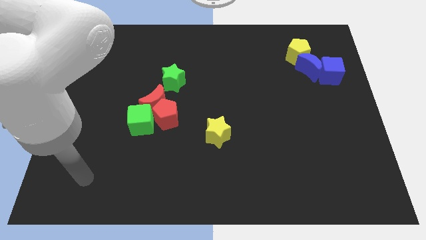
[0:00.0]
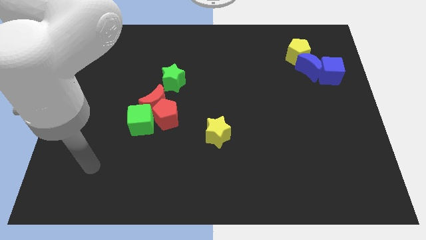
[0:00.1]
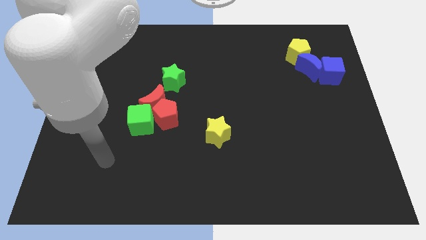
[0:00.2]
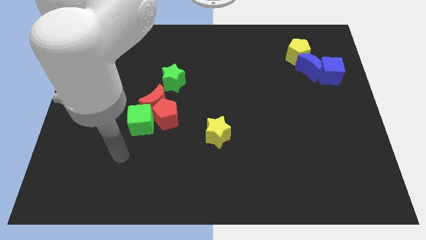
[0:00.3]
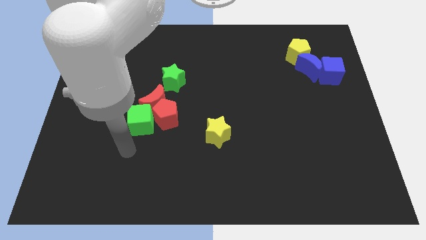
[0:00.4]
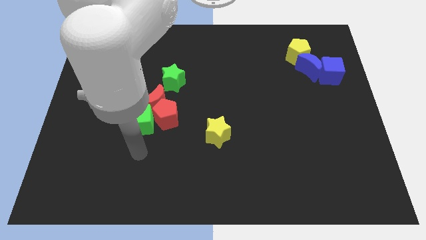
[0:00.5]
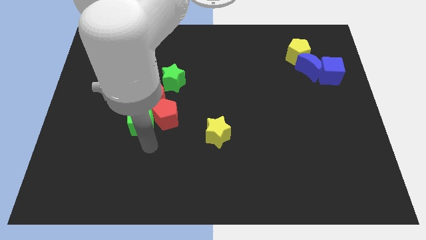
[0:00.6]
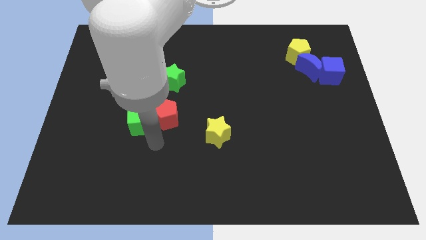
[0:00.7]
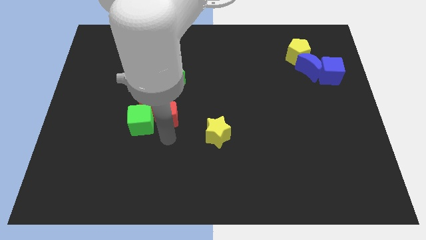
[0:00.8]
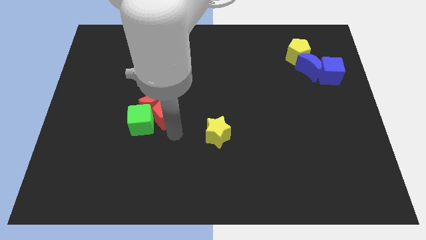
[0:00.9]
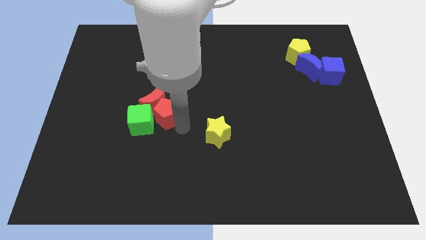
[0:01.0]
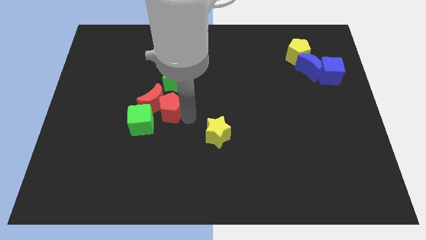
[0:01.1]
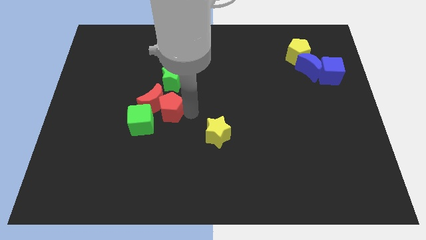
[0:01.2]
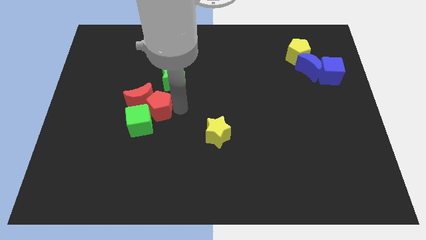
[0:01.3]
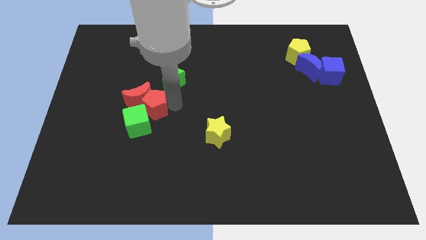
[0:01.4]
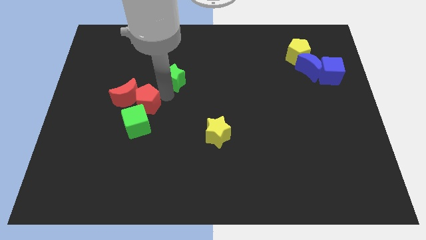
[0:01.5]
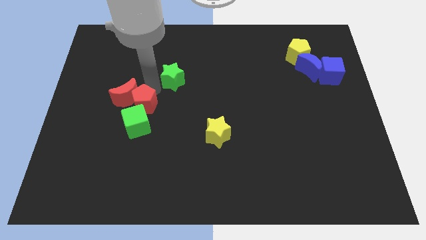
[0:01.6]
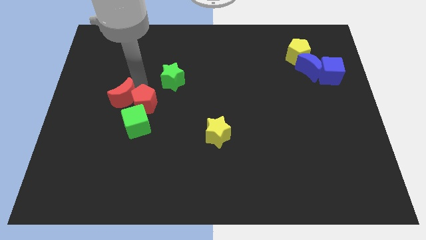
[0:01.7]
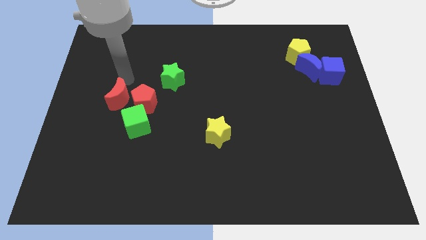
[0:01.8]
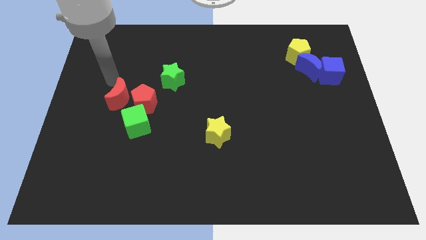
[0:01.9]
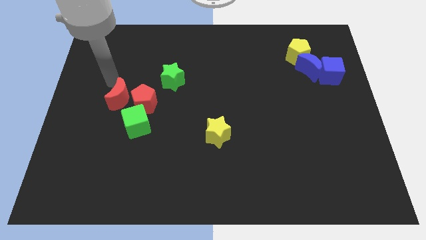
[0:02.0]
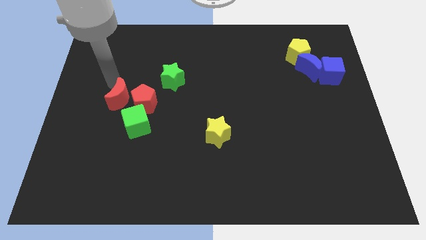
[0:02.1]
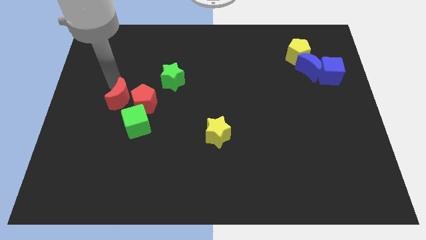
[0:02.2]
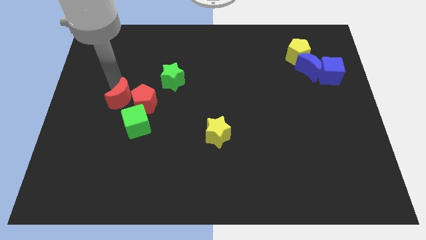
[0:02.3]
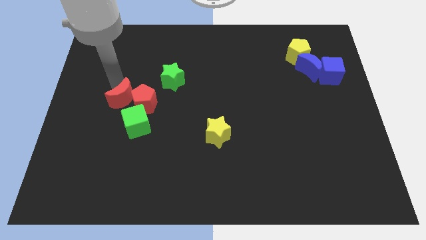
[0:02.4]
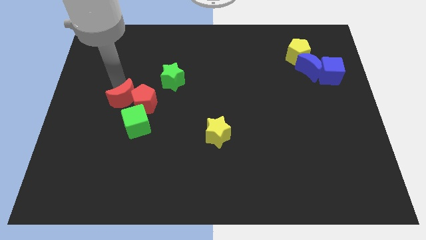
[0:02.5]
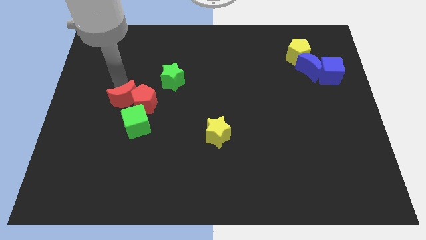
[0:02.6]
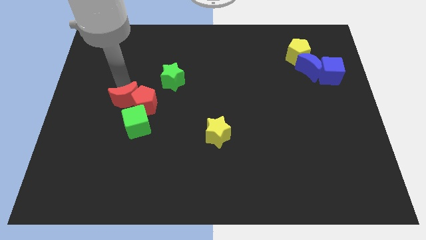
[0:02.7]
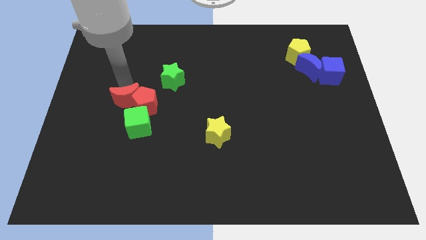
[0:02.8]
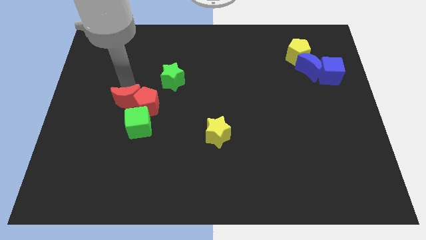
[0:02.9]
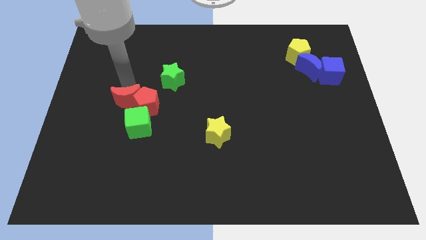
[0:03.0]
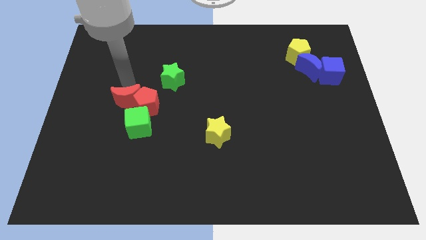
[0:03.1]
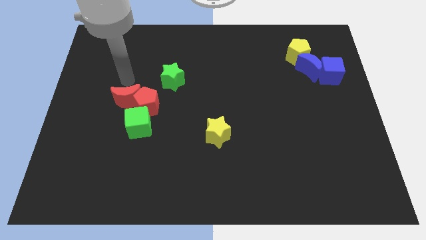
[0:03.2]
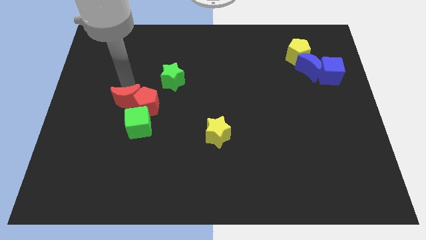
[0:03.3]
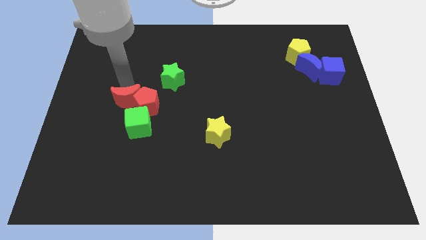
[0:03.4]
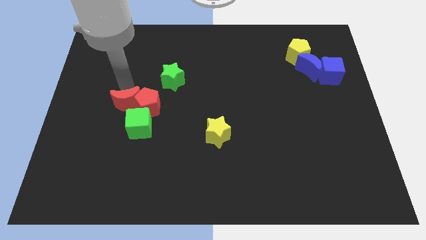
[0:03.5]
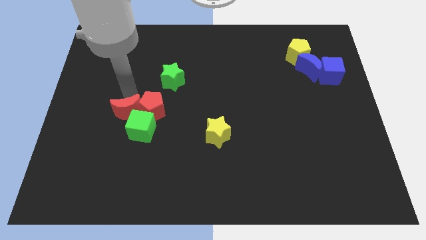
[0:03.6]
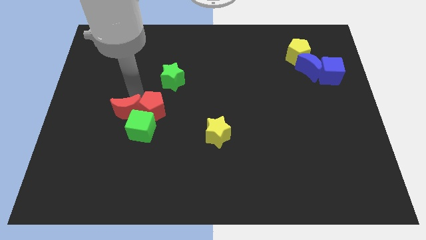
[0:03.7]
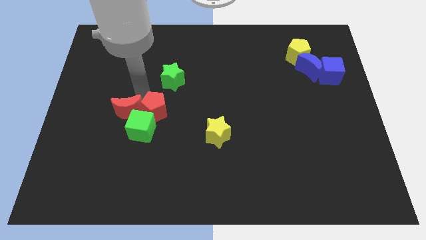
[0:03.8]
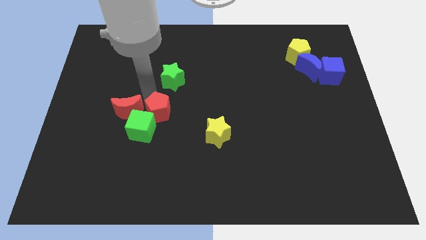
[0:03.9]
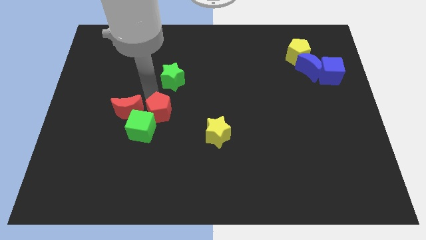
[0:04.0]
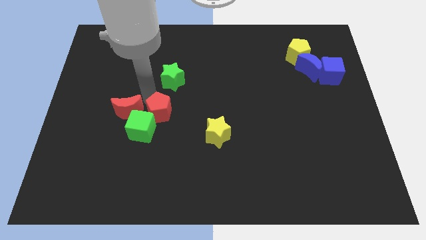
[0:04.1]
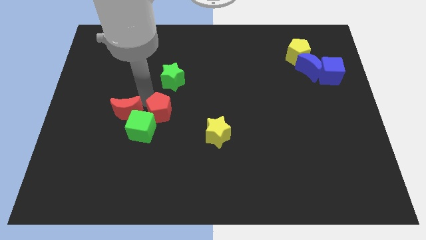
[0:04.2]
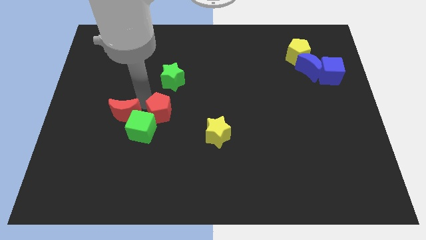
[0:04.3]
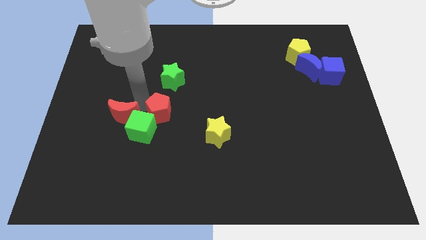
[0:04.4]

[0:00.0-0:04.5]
slightly slide the red moon down and to the left

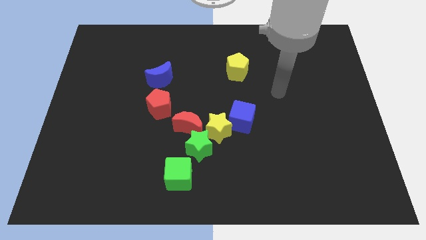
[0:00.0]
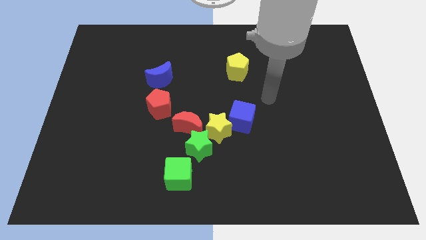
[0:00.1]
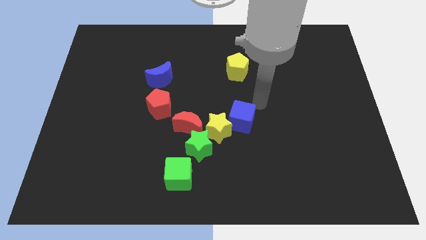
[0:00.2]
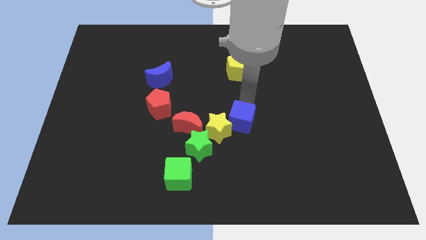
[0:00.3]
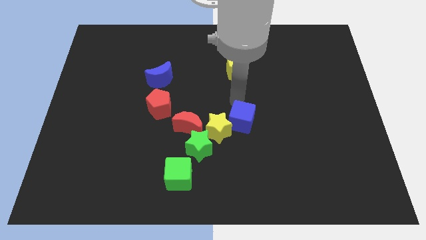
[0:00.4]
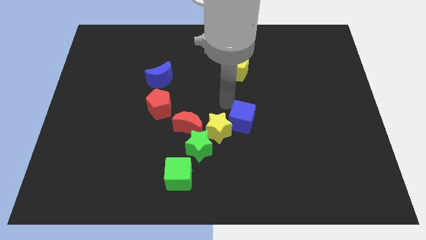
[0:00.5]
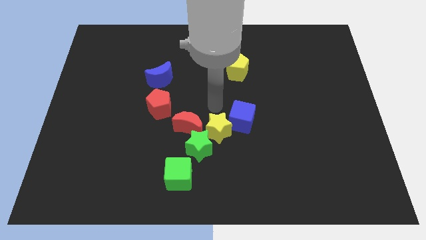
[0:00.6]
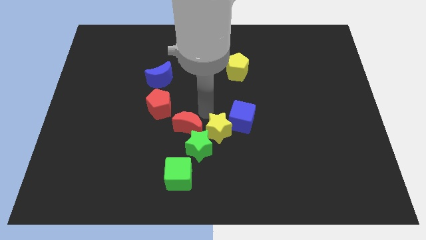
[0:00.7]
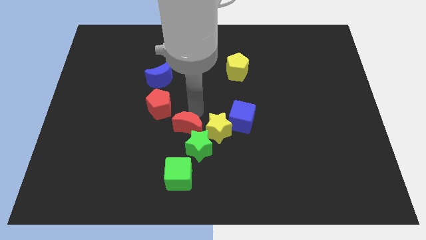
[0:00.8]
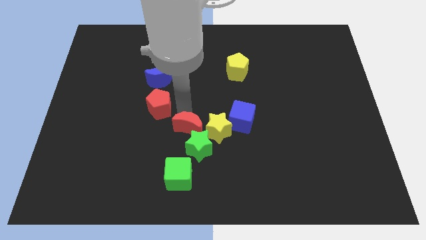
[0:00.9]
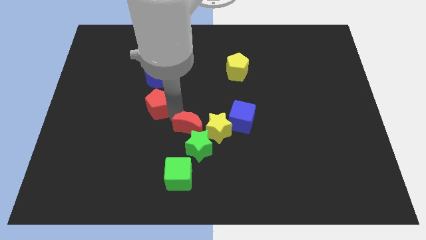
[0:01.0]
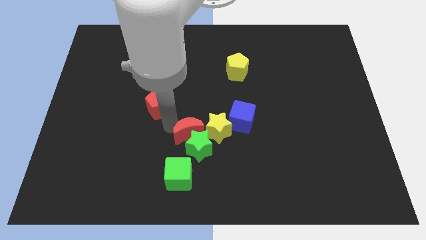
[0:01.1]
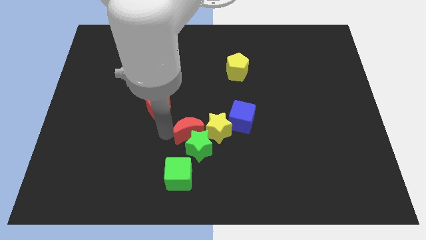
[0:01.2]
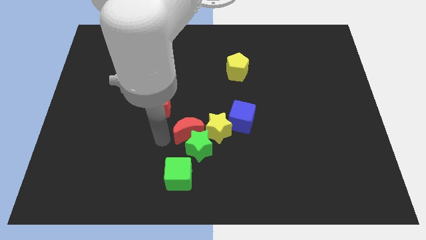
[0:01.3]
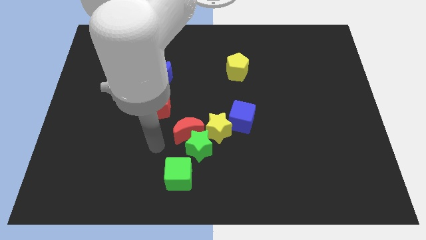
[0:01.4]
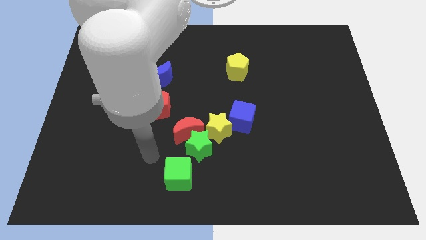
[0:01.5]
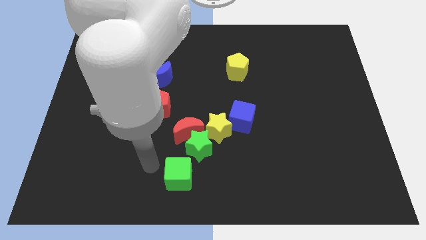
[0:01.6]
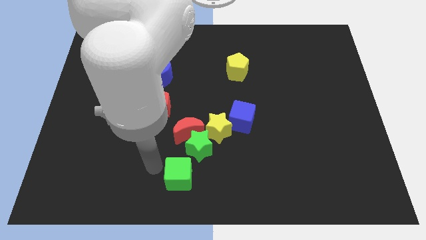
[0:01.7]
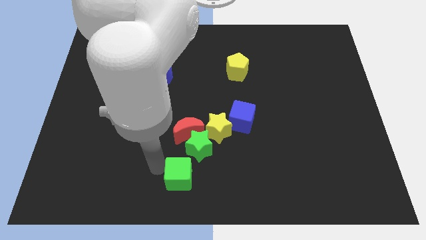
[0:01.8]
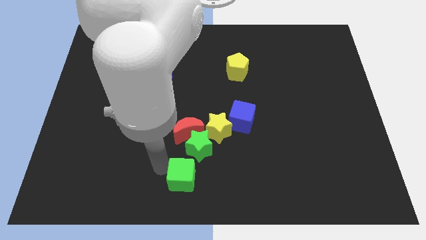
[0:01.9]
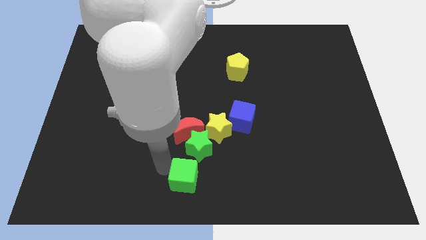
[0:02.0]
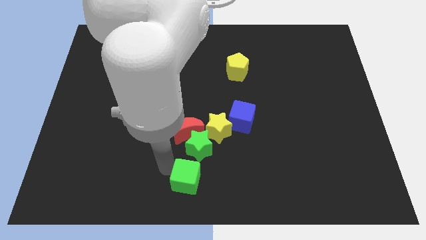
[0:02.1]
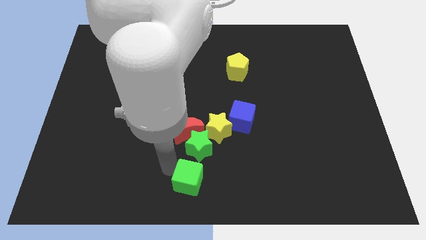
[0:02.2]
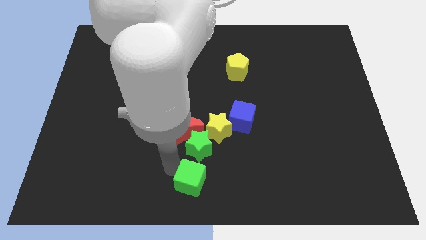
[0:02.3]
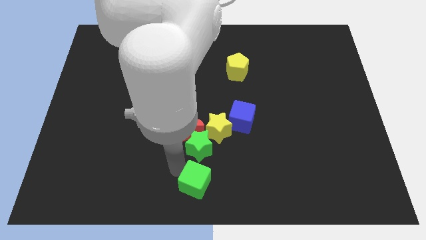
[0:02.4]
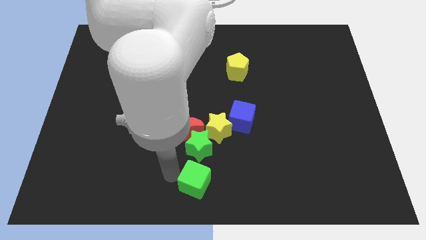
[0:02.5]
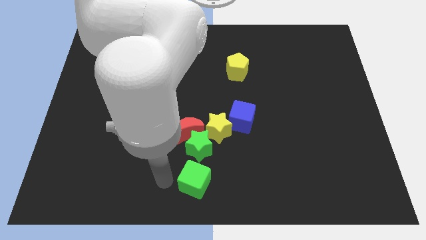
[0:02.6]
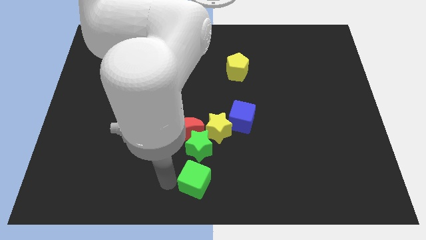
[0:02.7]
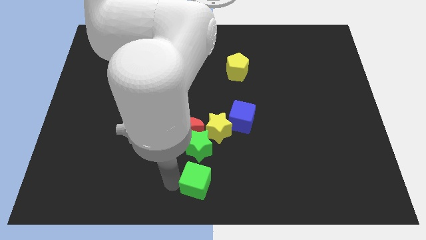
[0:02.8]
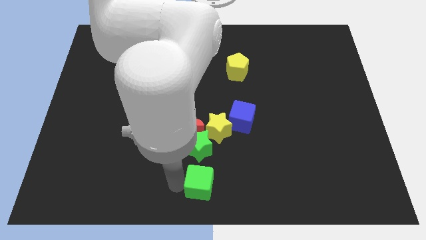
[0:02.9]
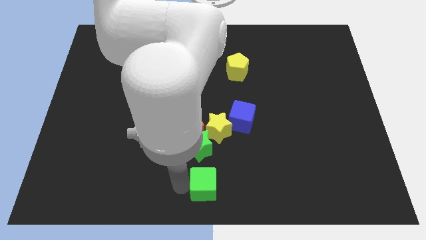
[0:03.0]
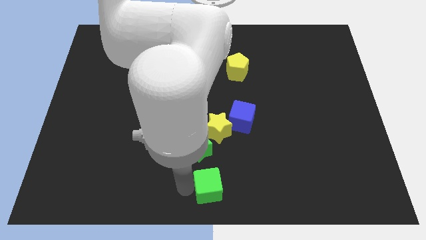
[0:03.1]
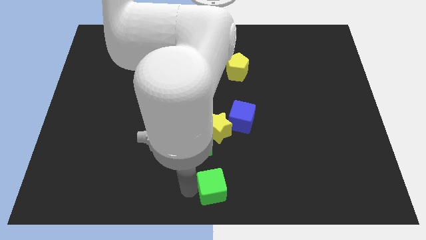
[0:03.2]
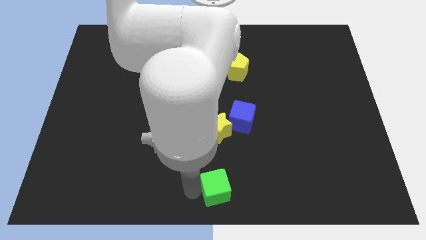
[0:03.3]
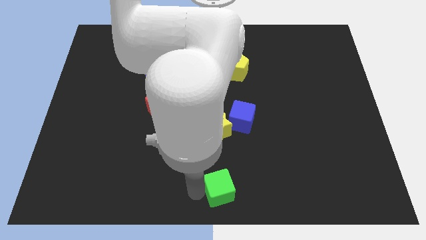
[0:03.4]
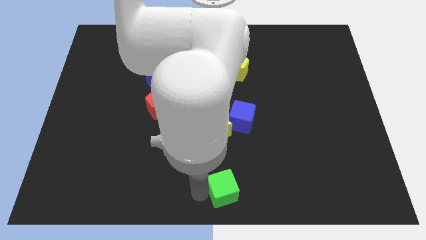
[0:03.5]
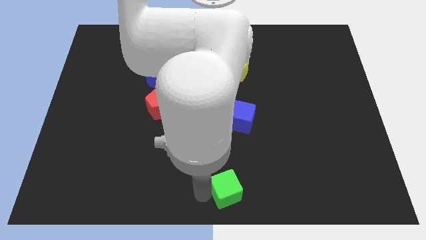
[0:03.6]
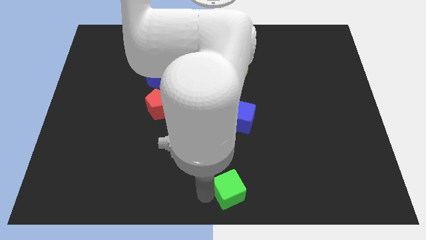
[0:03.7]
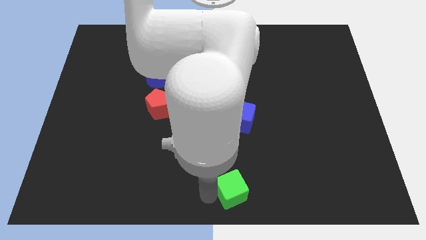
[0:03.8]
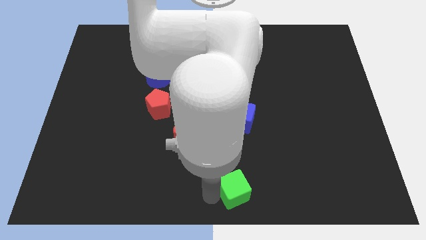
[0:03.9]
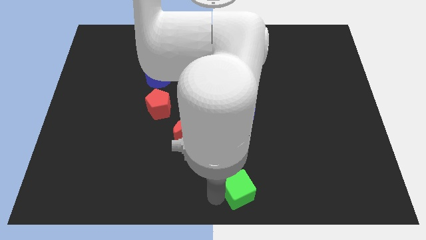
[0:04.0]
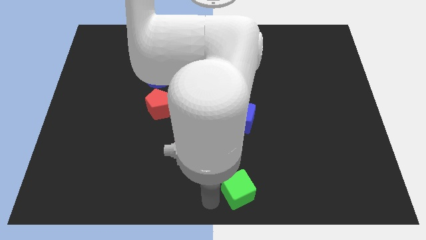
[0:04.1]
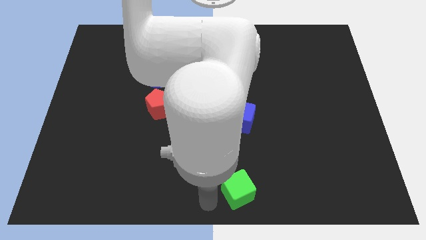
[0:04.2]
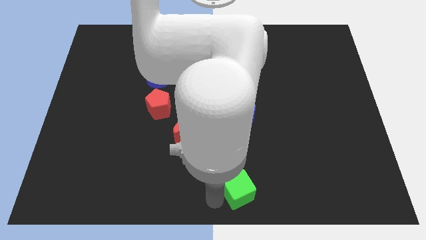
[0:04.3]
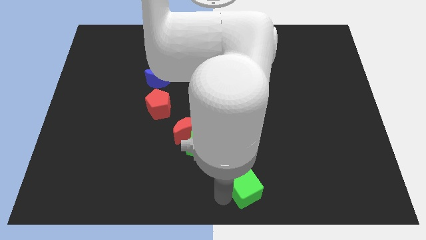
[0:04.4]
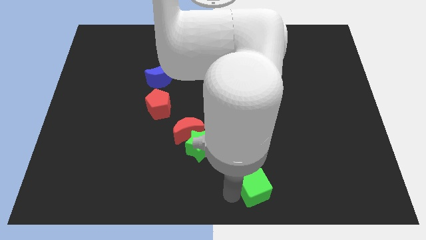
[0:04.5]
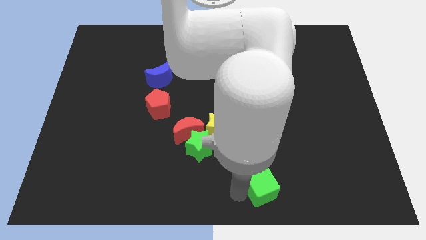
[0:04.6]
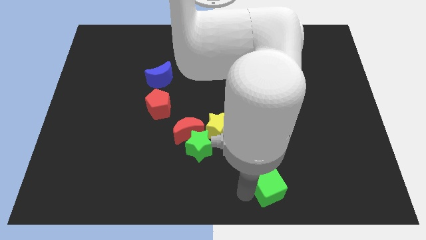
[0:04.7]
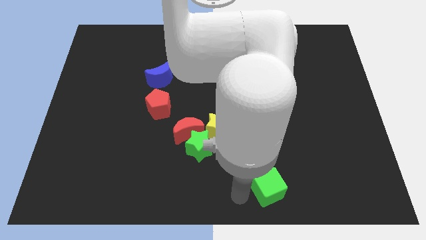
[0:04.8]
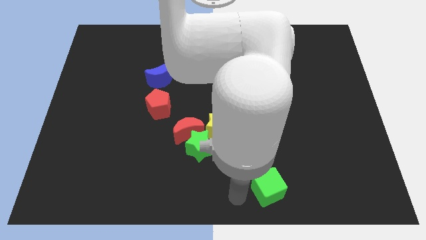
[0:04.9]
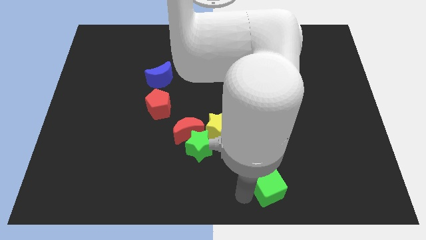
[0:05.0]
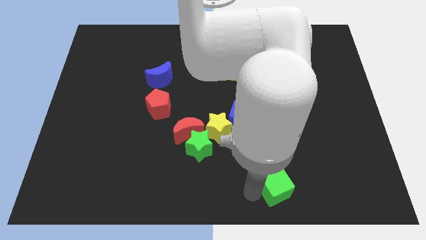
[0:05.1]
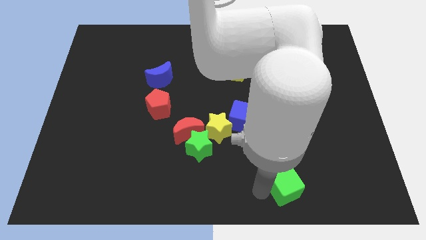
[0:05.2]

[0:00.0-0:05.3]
move the green cube to the right
